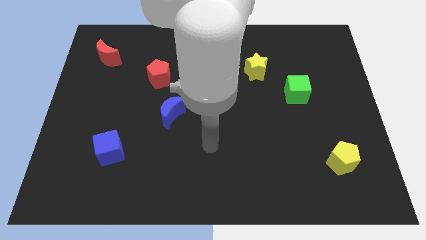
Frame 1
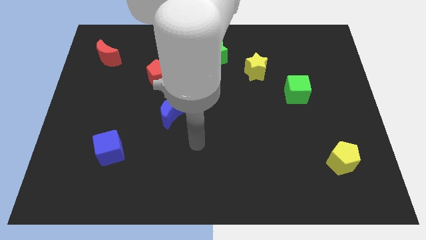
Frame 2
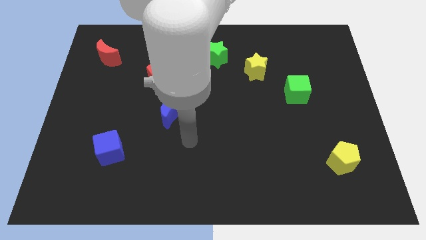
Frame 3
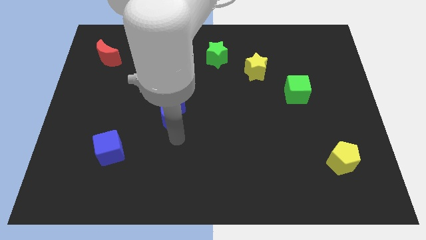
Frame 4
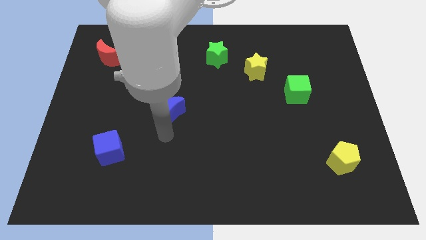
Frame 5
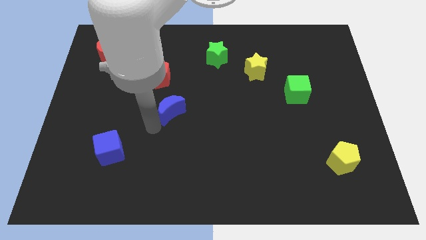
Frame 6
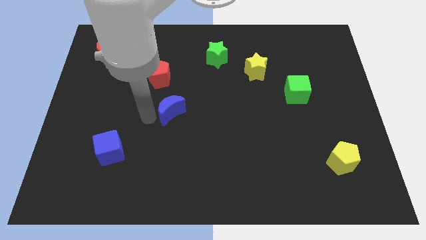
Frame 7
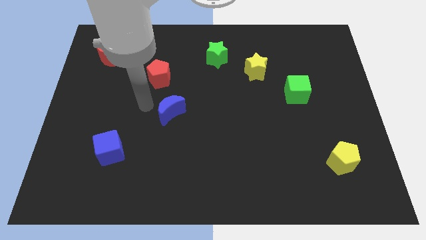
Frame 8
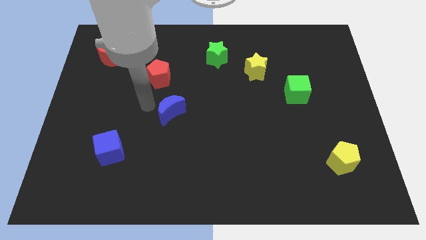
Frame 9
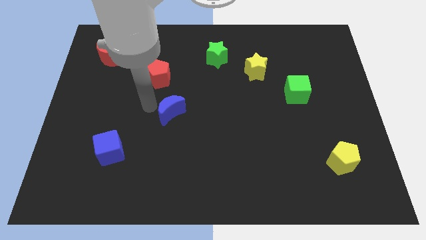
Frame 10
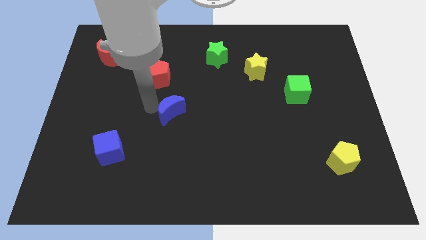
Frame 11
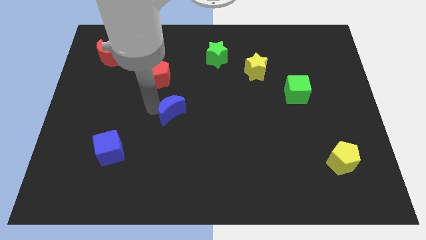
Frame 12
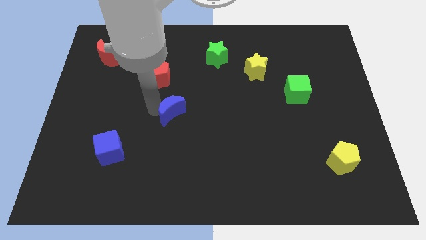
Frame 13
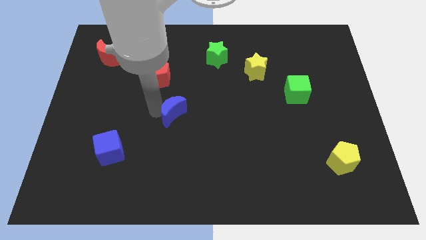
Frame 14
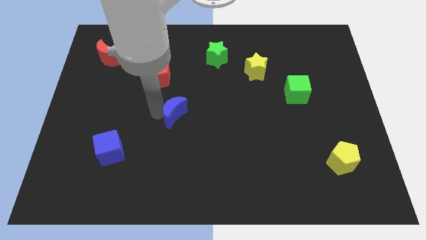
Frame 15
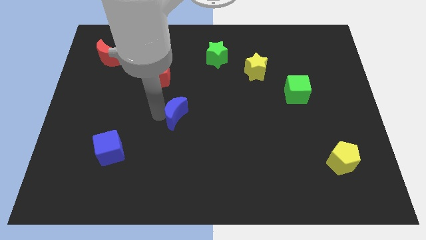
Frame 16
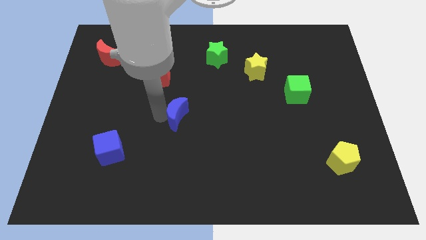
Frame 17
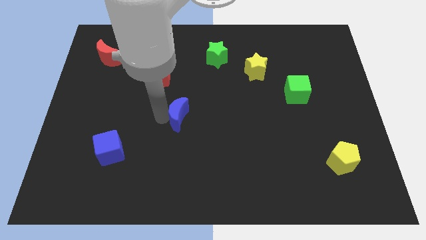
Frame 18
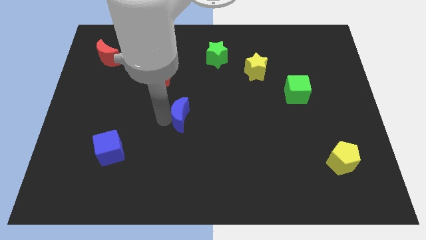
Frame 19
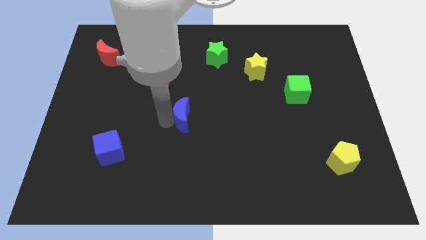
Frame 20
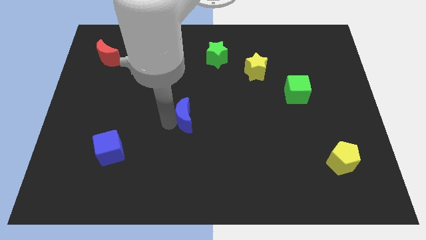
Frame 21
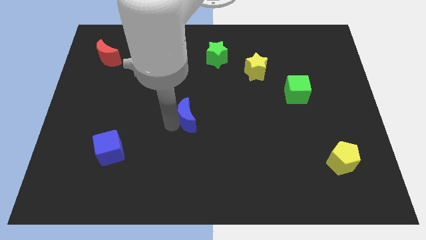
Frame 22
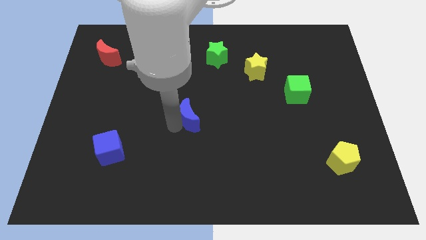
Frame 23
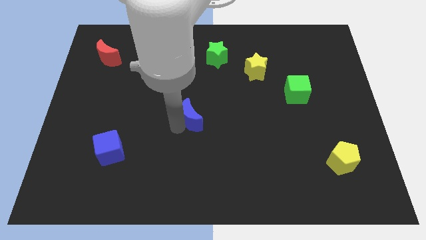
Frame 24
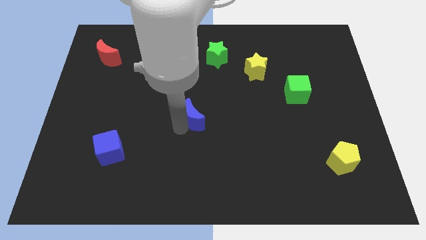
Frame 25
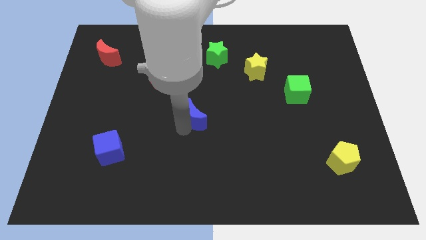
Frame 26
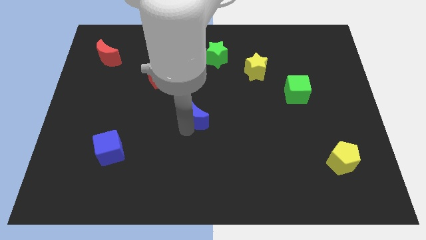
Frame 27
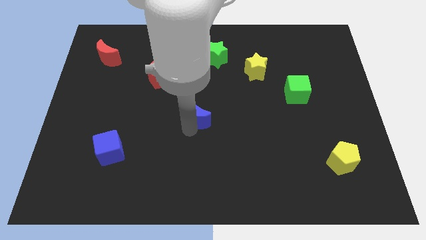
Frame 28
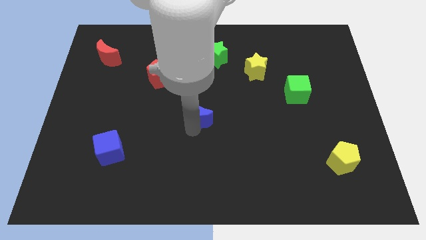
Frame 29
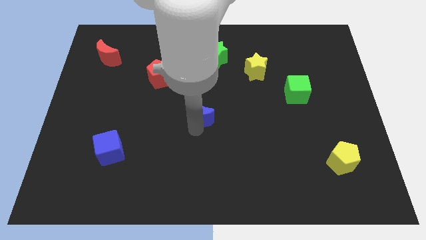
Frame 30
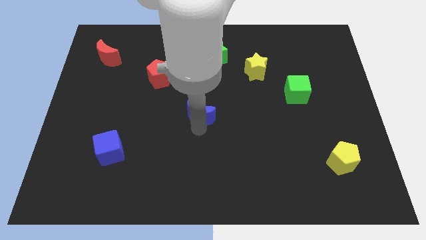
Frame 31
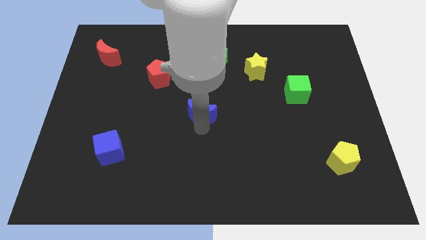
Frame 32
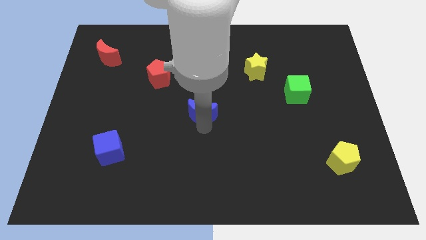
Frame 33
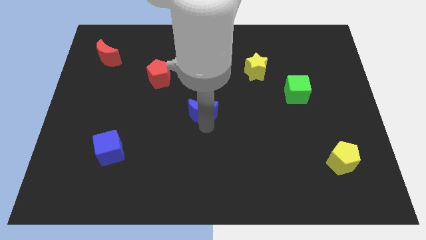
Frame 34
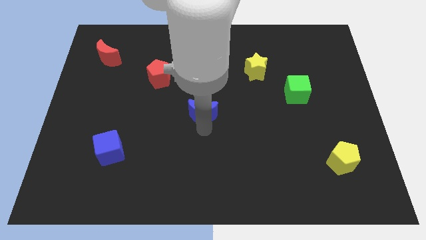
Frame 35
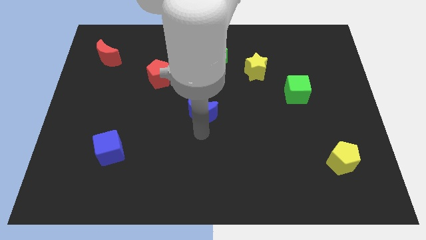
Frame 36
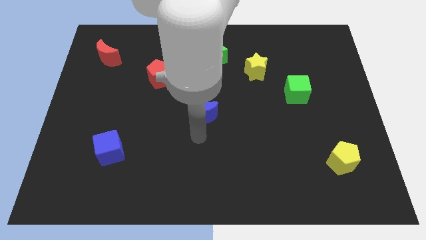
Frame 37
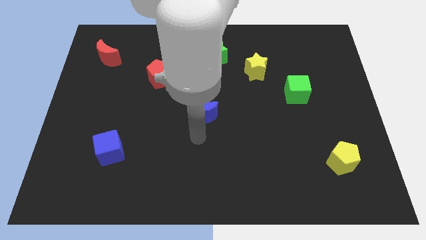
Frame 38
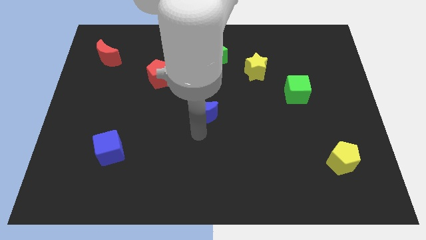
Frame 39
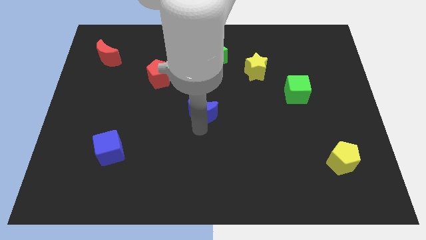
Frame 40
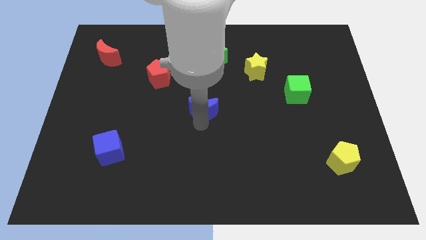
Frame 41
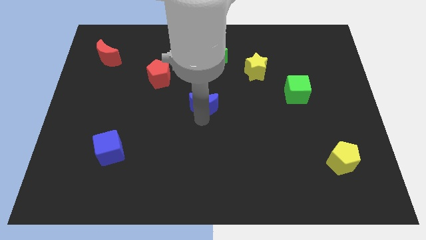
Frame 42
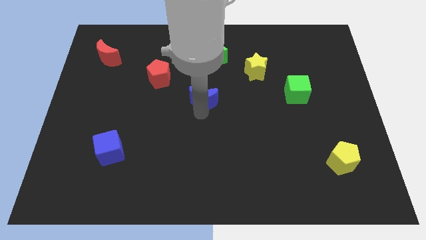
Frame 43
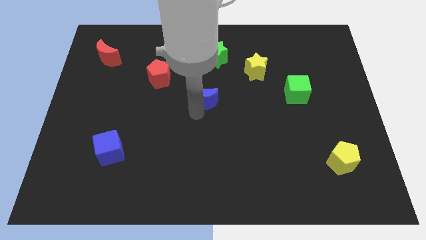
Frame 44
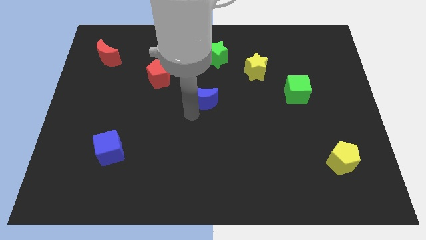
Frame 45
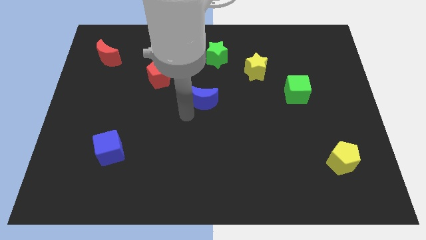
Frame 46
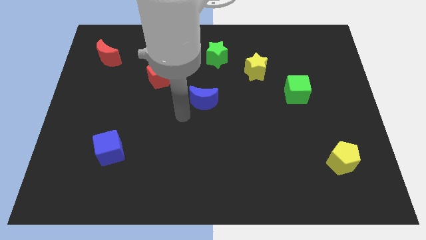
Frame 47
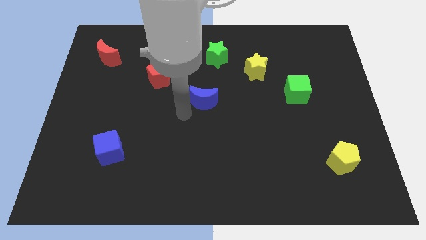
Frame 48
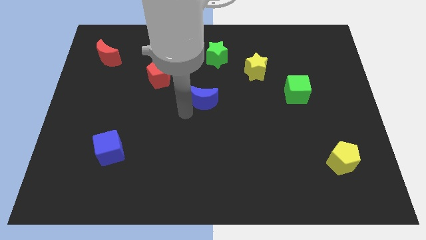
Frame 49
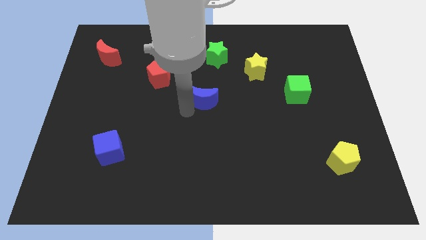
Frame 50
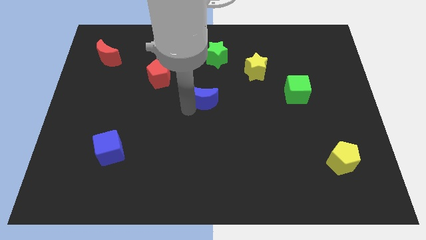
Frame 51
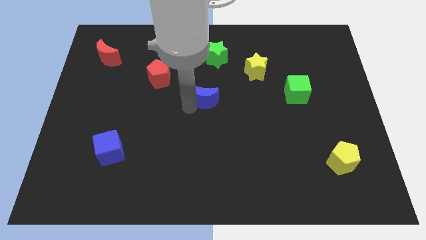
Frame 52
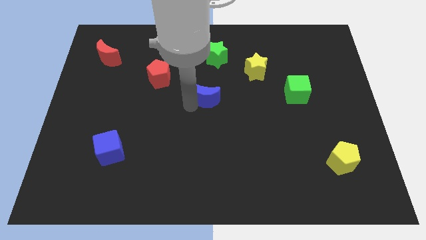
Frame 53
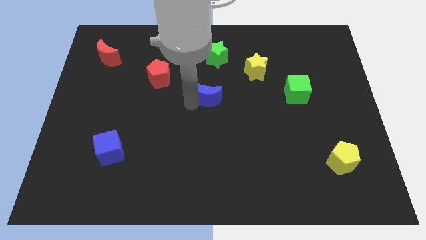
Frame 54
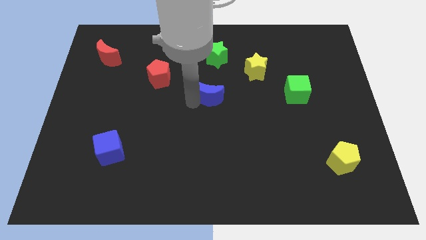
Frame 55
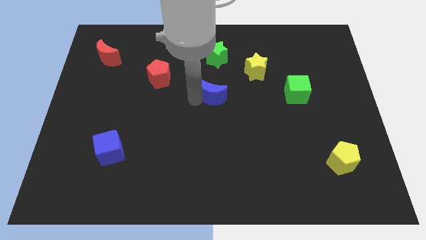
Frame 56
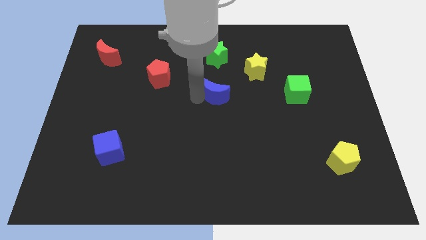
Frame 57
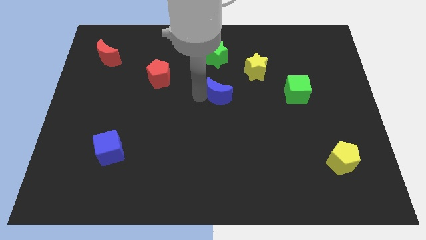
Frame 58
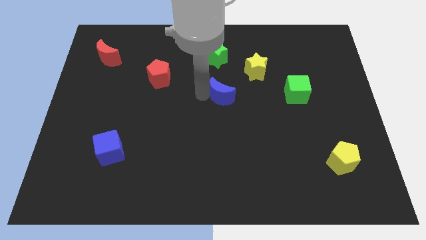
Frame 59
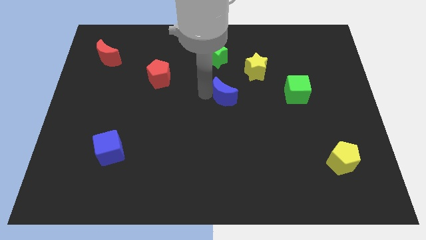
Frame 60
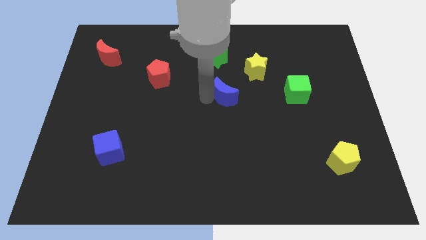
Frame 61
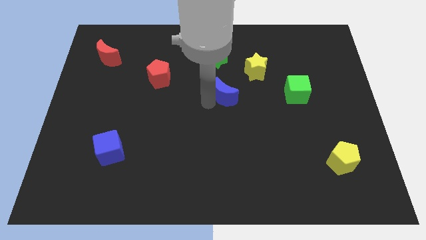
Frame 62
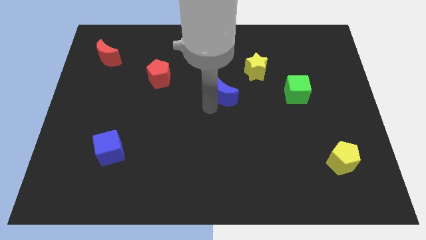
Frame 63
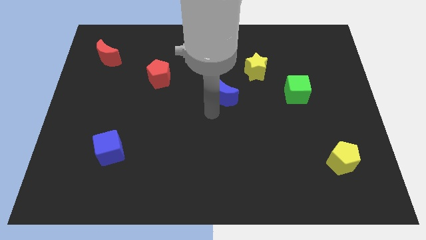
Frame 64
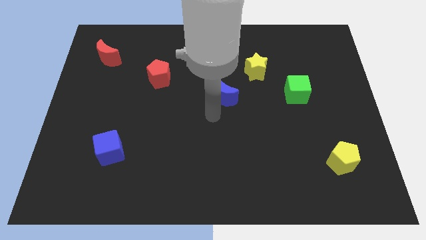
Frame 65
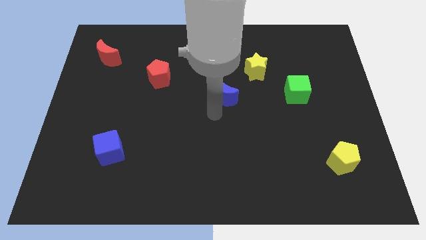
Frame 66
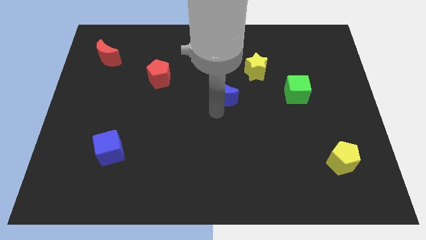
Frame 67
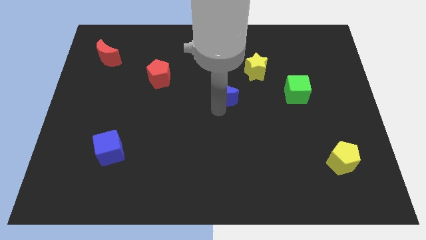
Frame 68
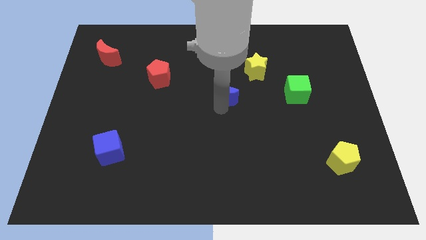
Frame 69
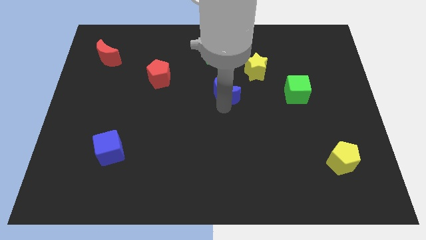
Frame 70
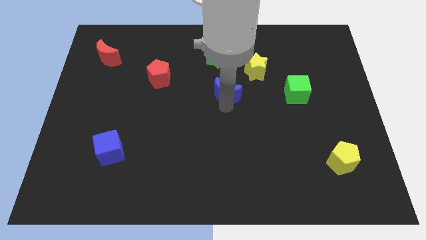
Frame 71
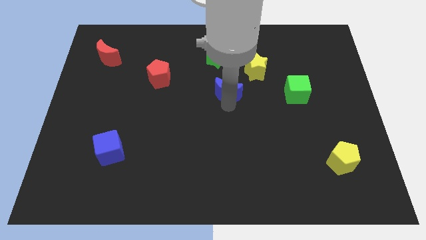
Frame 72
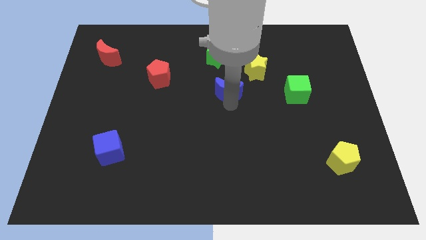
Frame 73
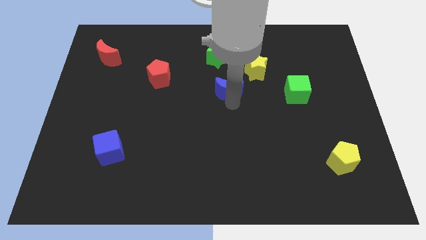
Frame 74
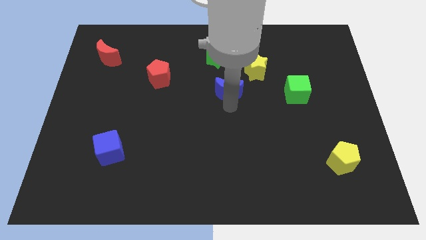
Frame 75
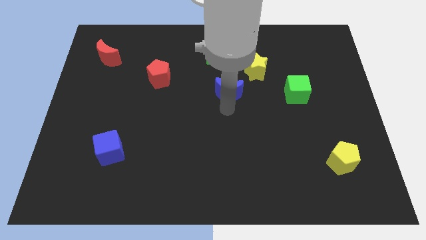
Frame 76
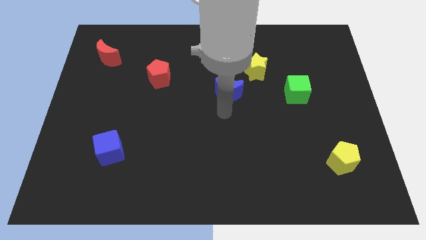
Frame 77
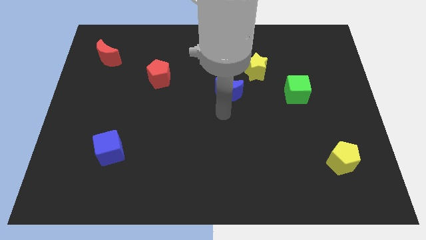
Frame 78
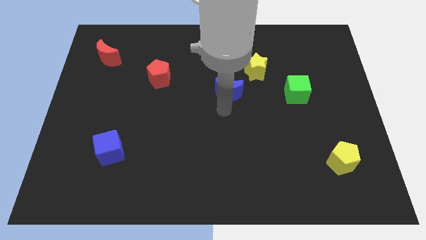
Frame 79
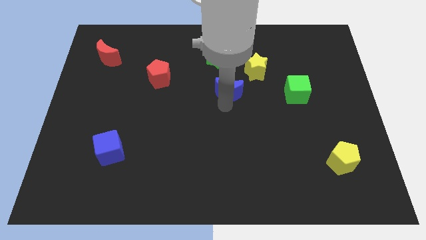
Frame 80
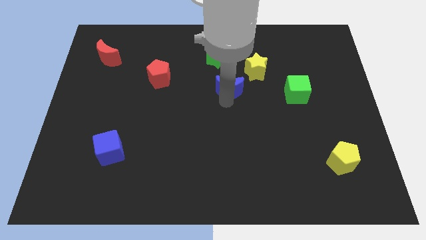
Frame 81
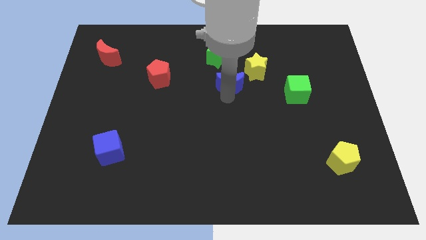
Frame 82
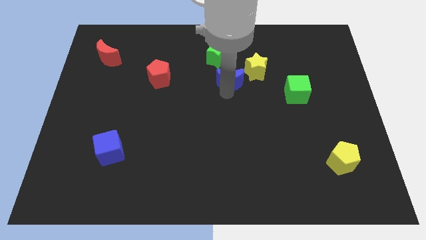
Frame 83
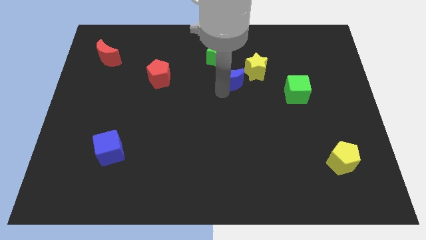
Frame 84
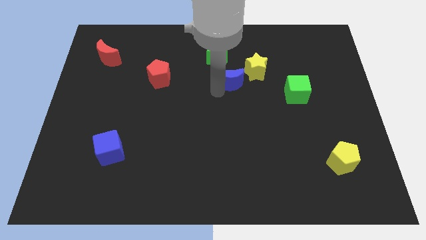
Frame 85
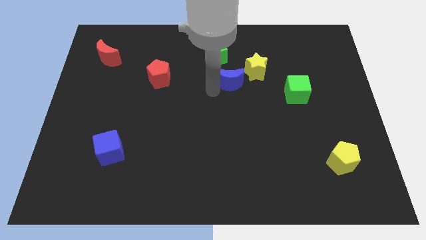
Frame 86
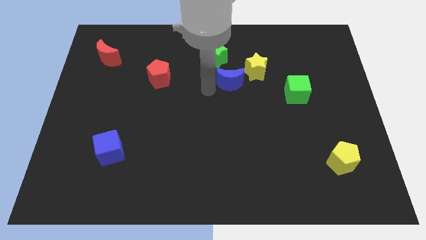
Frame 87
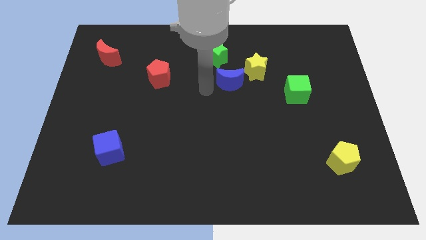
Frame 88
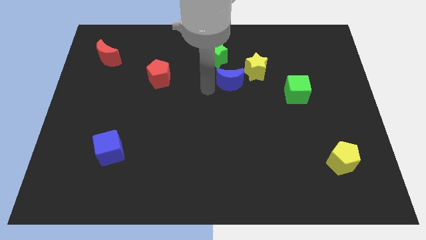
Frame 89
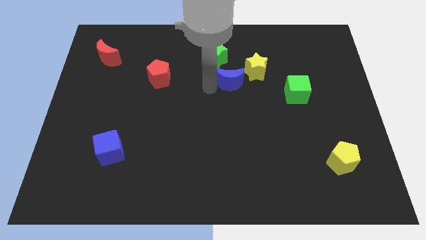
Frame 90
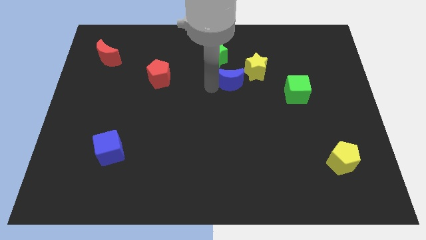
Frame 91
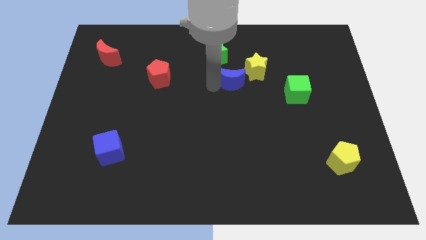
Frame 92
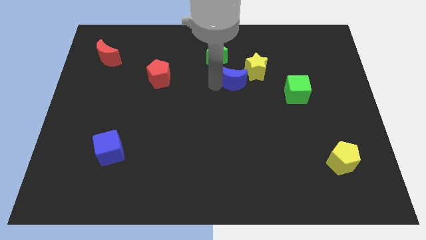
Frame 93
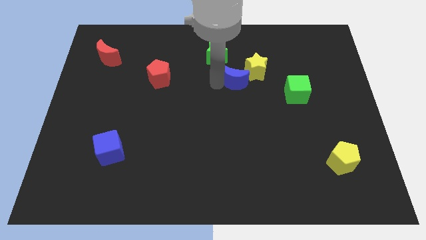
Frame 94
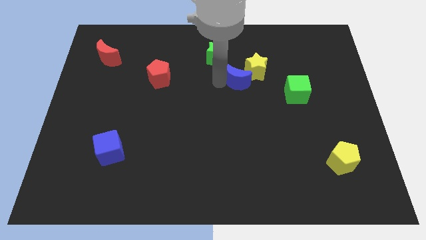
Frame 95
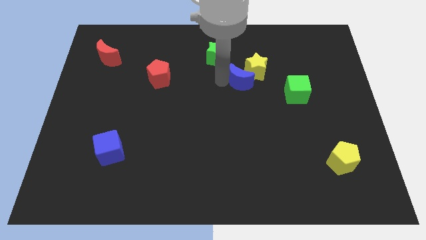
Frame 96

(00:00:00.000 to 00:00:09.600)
move the blue moon close to the yellow star
